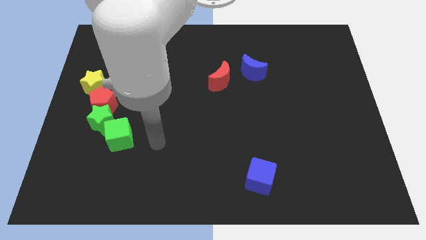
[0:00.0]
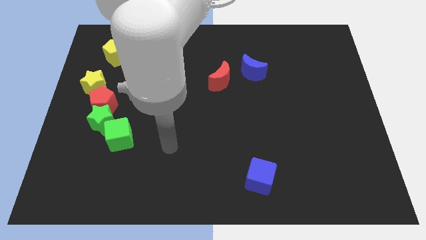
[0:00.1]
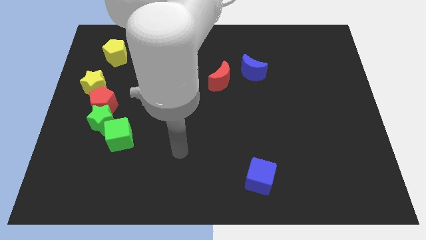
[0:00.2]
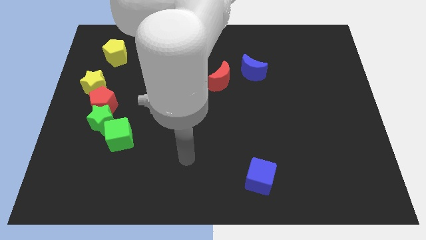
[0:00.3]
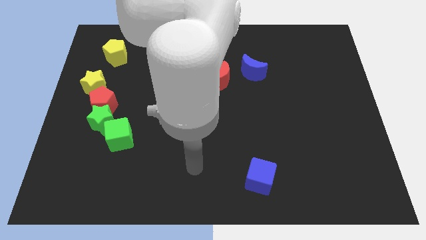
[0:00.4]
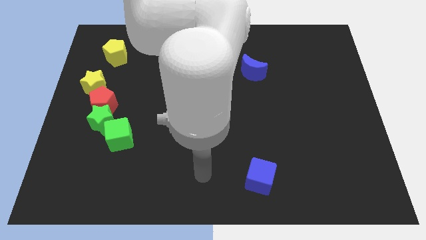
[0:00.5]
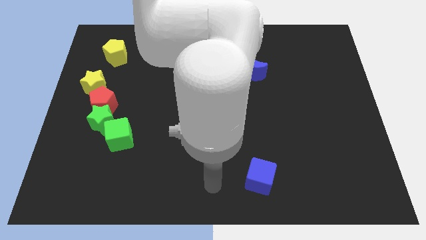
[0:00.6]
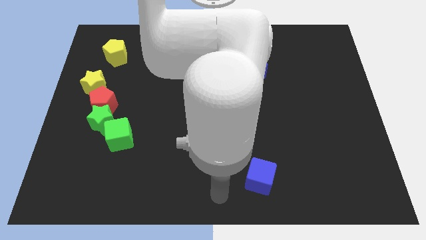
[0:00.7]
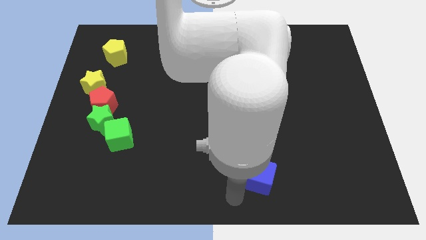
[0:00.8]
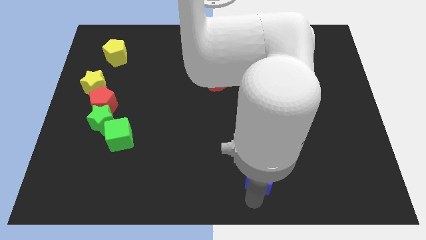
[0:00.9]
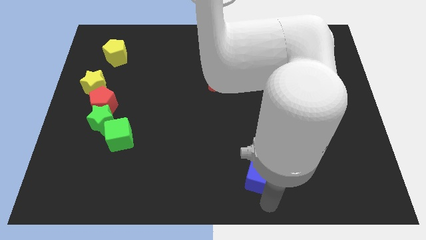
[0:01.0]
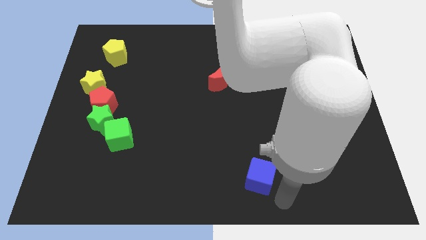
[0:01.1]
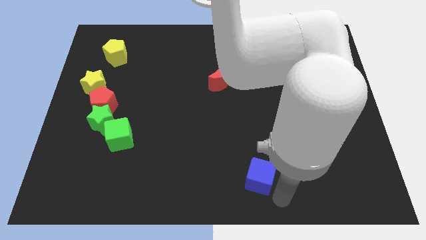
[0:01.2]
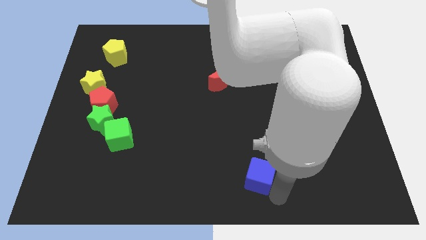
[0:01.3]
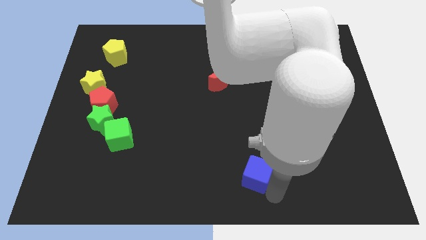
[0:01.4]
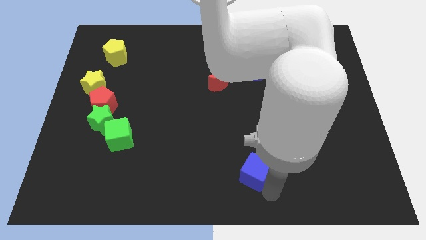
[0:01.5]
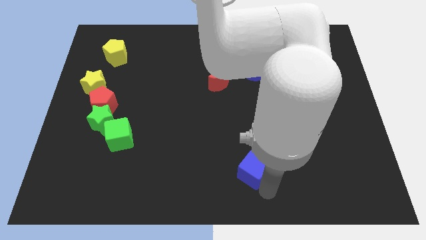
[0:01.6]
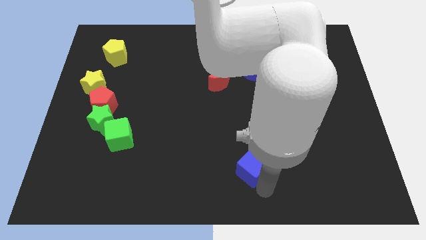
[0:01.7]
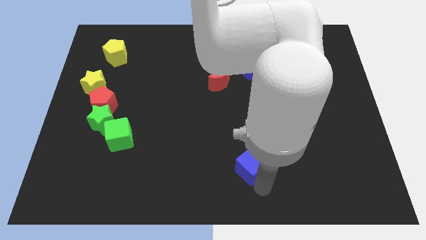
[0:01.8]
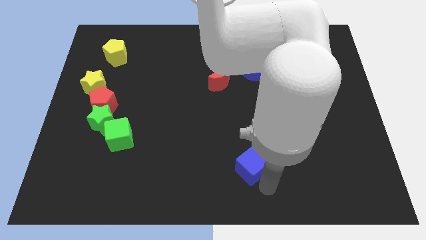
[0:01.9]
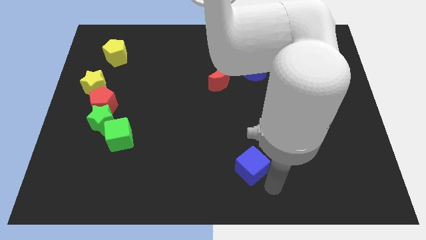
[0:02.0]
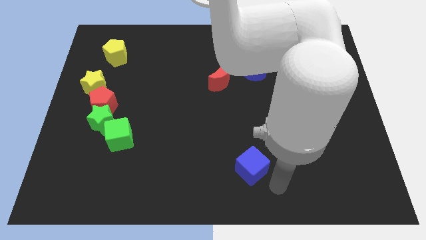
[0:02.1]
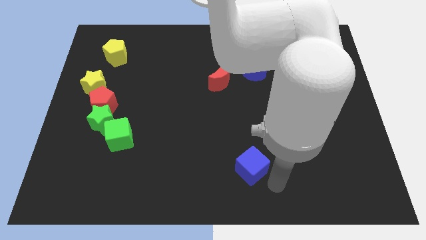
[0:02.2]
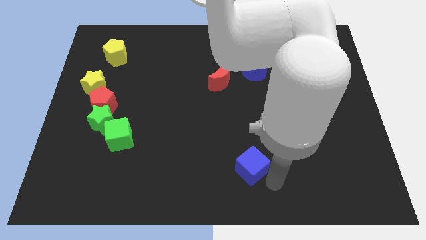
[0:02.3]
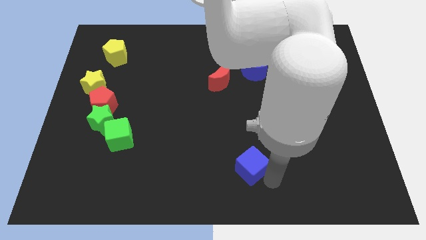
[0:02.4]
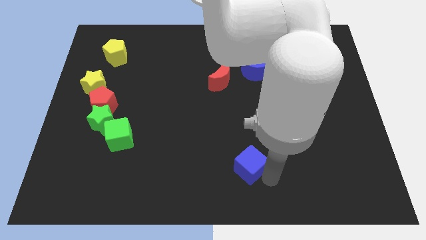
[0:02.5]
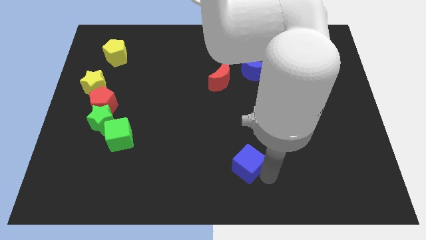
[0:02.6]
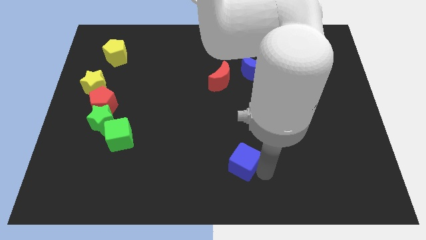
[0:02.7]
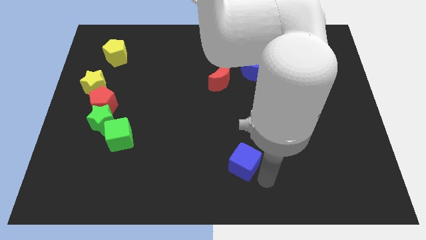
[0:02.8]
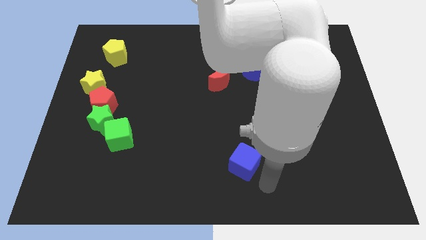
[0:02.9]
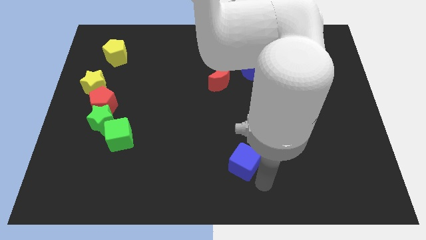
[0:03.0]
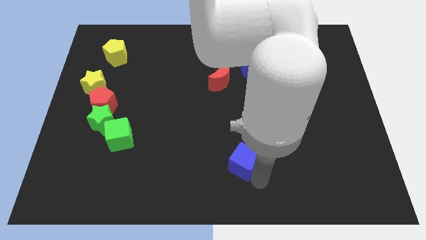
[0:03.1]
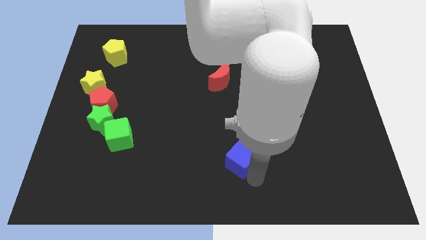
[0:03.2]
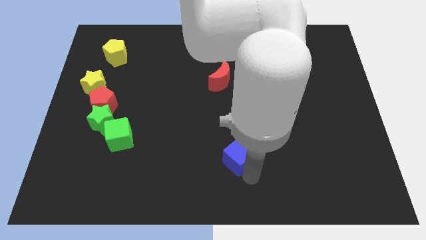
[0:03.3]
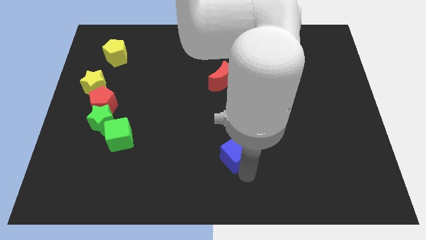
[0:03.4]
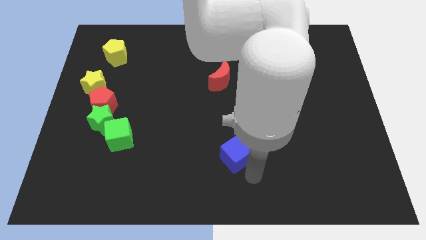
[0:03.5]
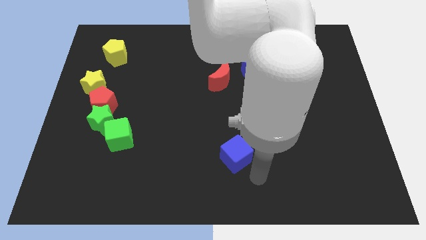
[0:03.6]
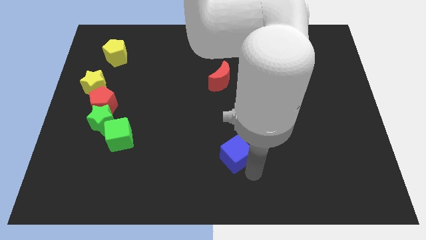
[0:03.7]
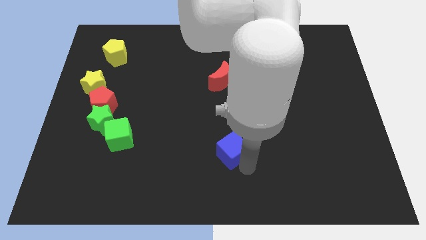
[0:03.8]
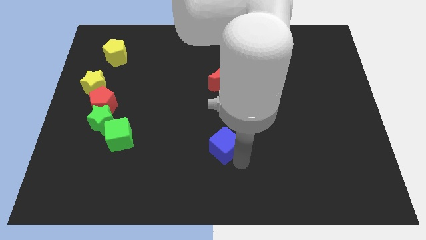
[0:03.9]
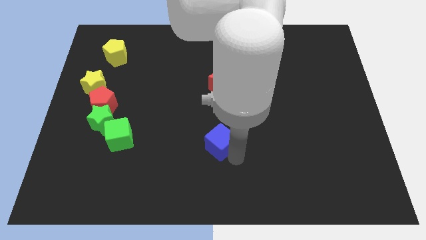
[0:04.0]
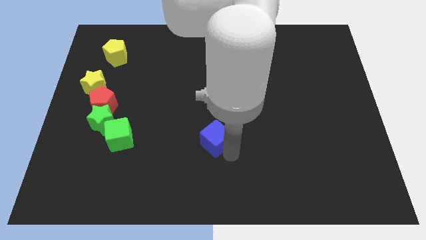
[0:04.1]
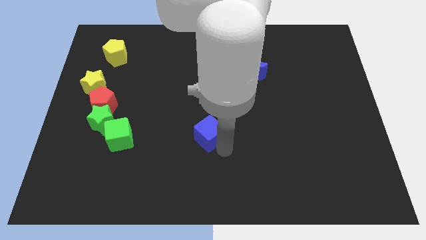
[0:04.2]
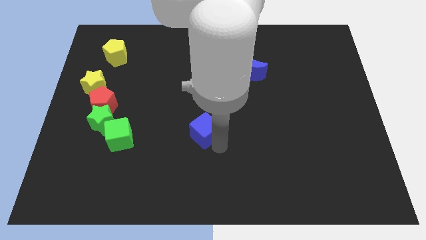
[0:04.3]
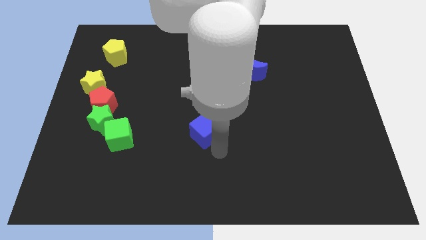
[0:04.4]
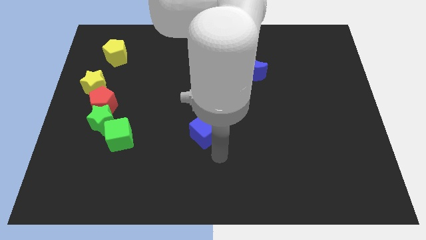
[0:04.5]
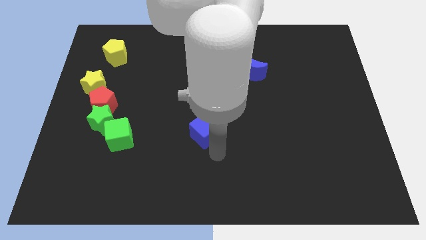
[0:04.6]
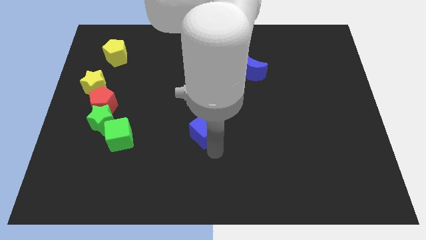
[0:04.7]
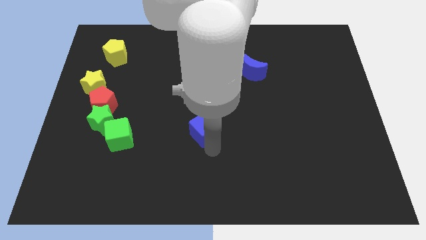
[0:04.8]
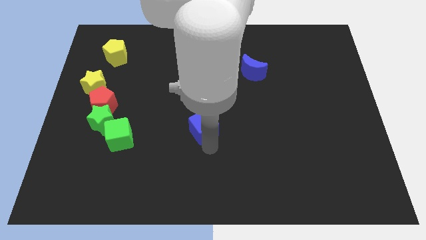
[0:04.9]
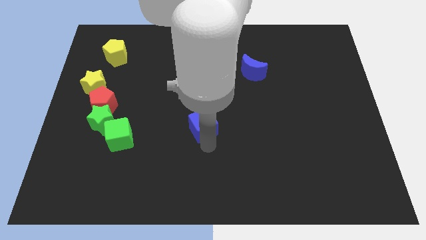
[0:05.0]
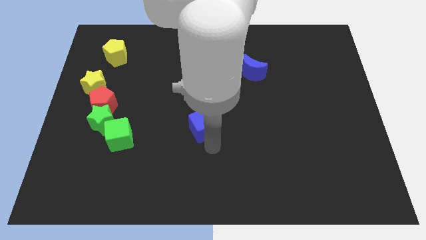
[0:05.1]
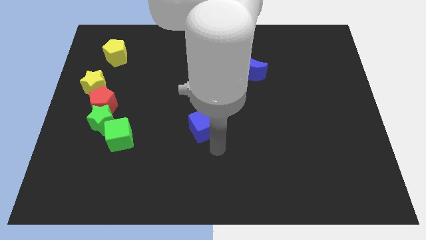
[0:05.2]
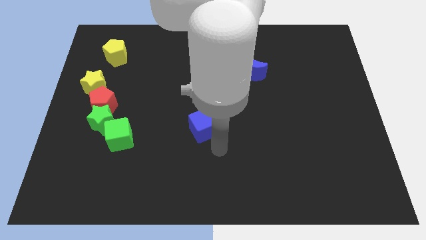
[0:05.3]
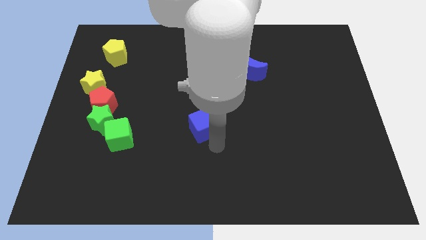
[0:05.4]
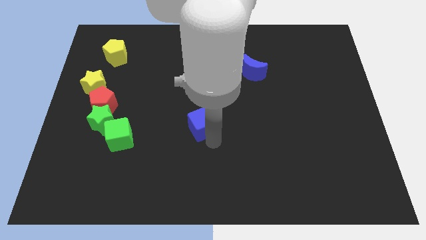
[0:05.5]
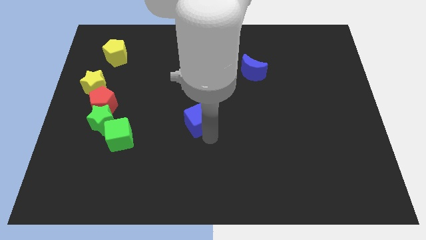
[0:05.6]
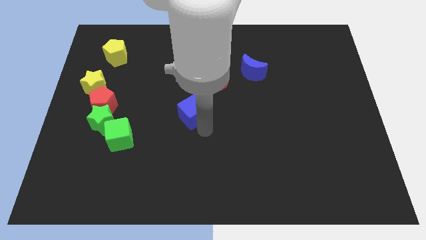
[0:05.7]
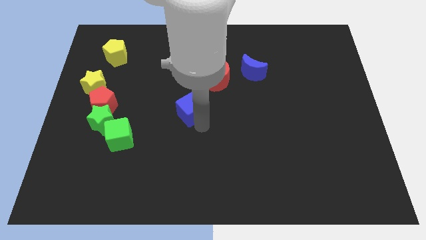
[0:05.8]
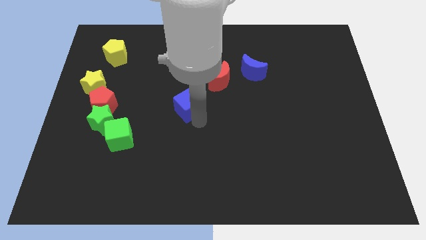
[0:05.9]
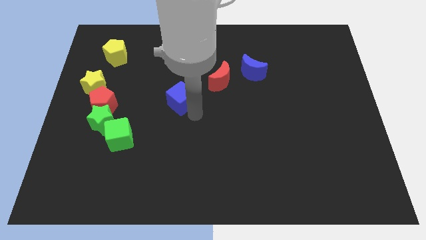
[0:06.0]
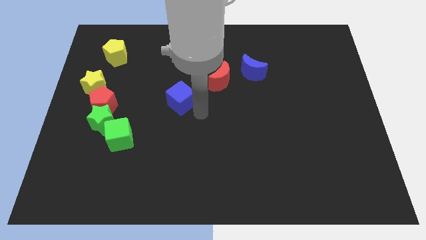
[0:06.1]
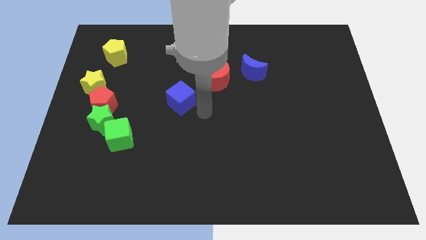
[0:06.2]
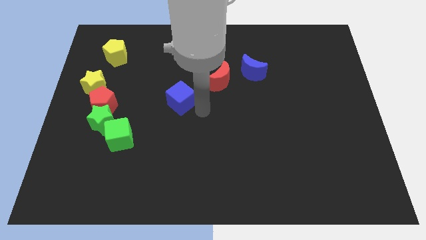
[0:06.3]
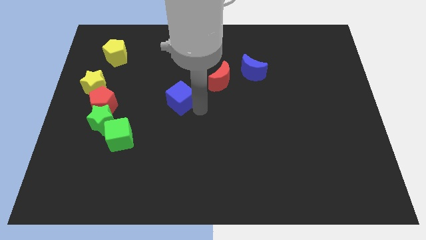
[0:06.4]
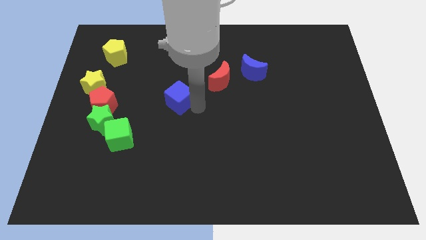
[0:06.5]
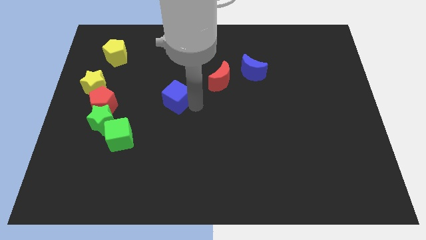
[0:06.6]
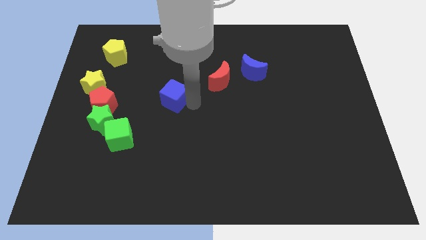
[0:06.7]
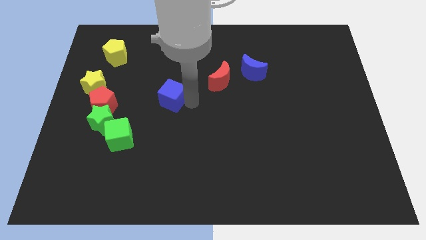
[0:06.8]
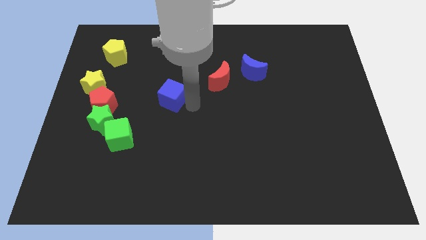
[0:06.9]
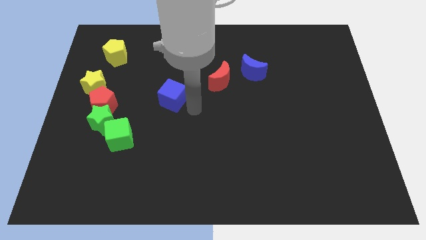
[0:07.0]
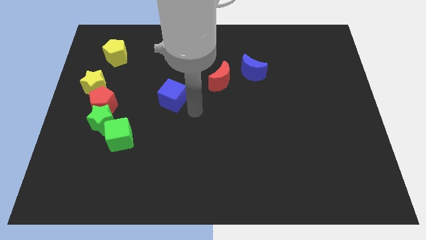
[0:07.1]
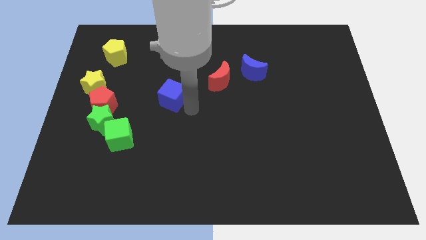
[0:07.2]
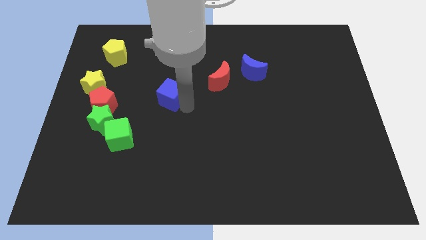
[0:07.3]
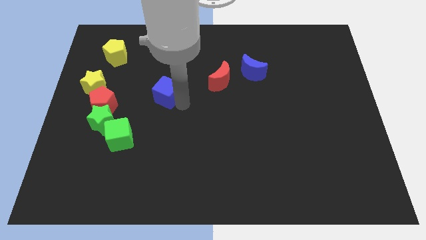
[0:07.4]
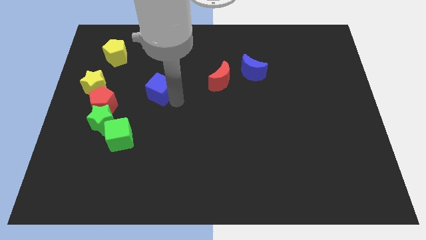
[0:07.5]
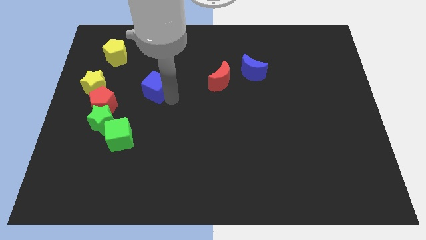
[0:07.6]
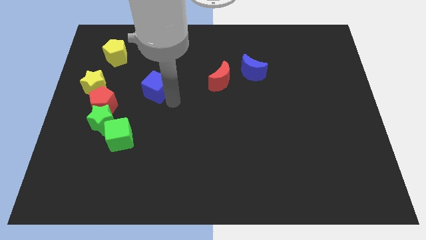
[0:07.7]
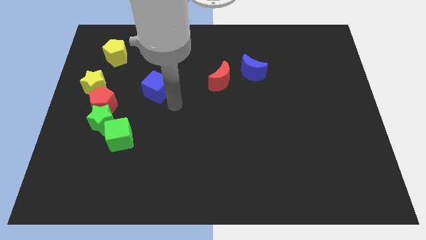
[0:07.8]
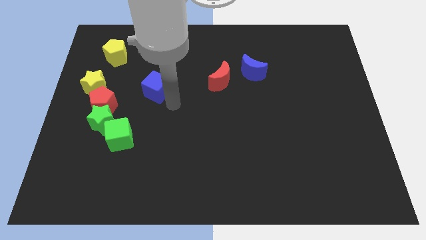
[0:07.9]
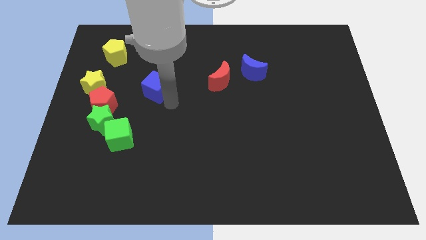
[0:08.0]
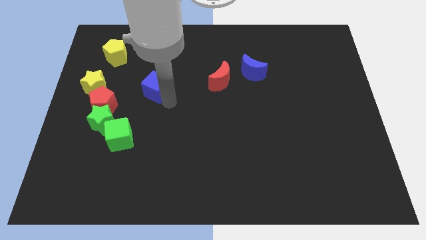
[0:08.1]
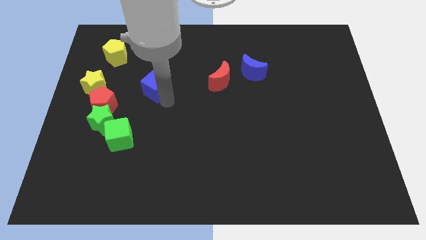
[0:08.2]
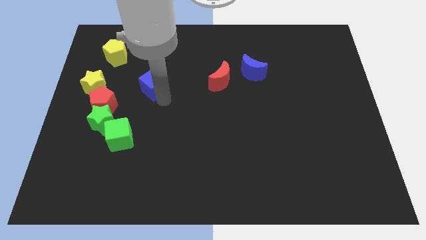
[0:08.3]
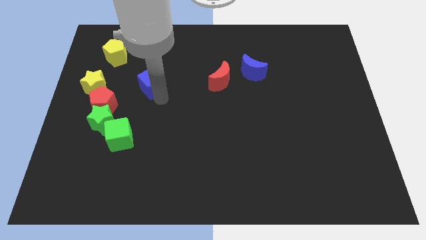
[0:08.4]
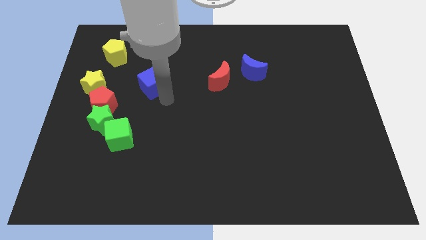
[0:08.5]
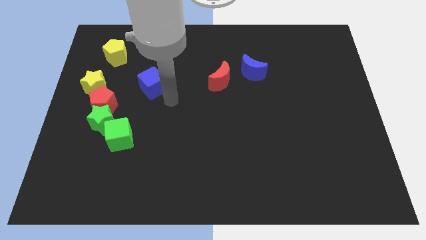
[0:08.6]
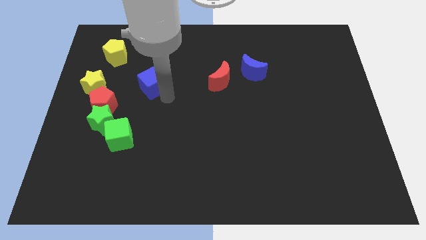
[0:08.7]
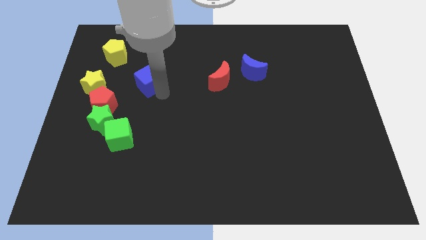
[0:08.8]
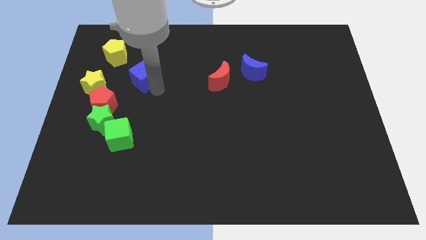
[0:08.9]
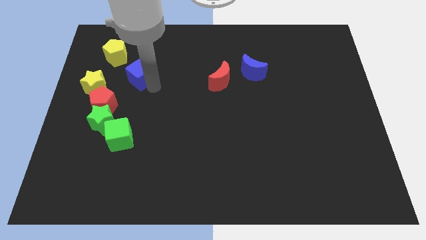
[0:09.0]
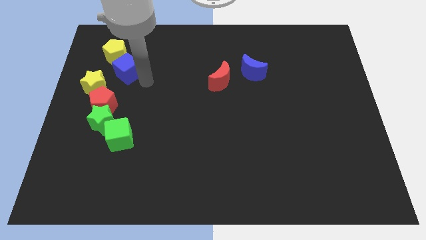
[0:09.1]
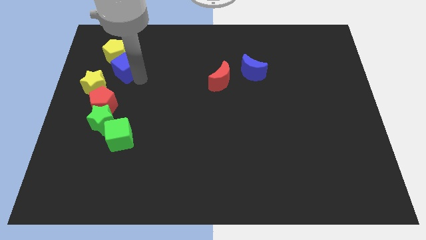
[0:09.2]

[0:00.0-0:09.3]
put the blue cube next to the yellow pentagon
